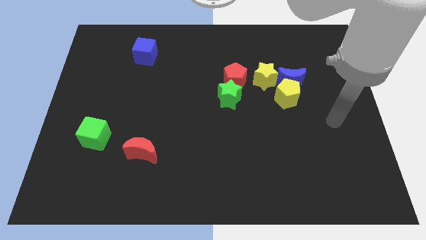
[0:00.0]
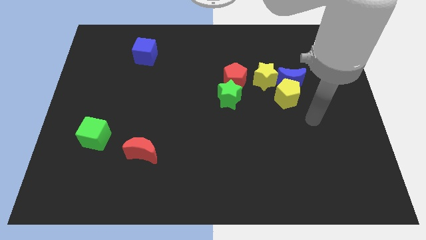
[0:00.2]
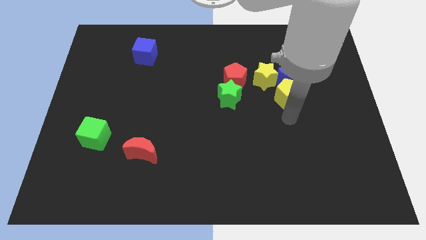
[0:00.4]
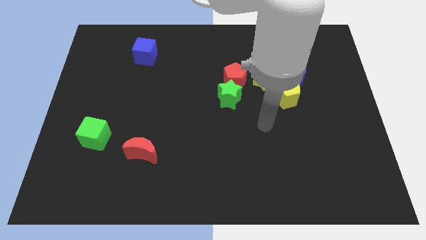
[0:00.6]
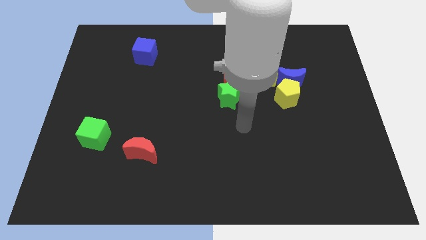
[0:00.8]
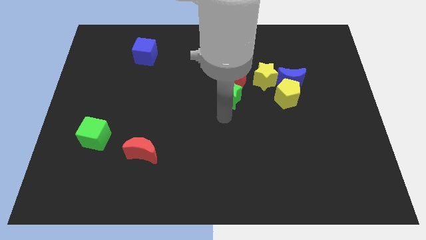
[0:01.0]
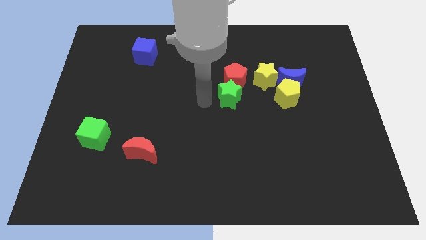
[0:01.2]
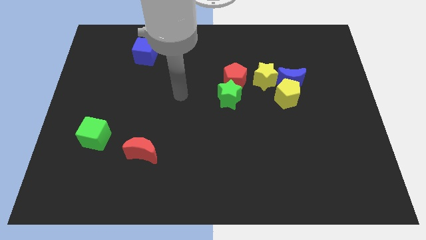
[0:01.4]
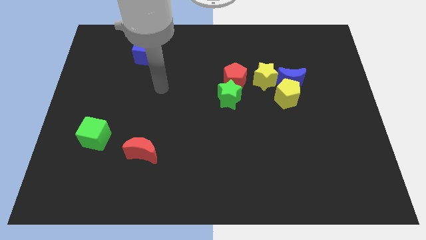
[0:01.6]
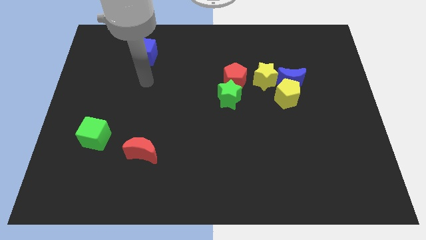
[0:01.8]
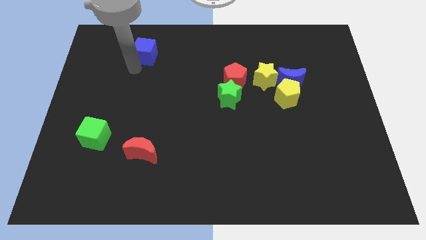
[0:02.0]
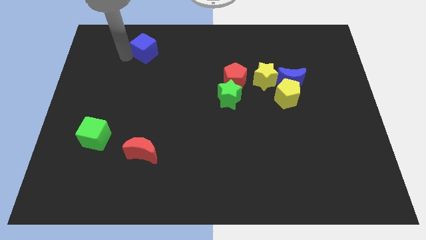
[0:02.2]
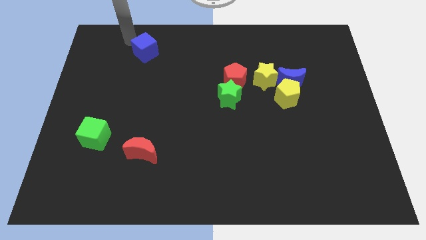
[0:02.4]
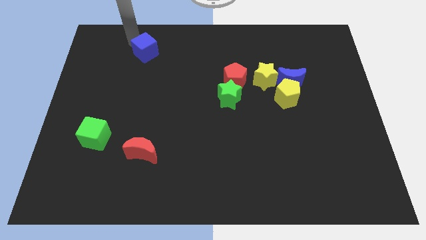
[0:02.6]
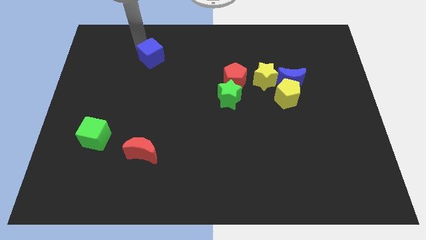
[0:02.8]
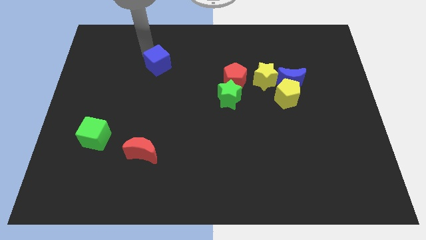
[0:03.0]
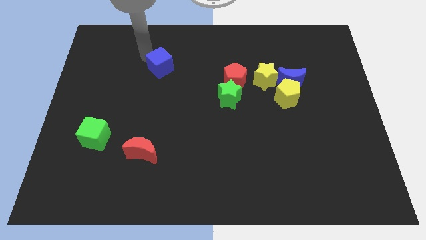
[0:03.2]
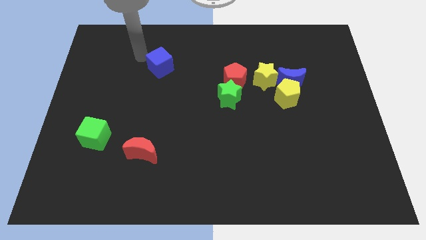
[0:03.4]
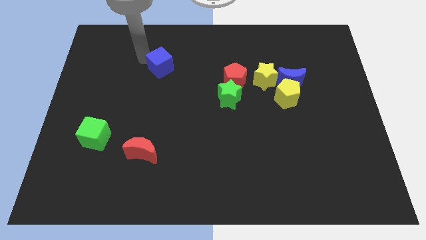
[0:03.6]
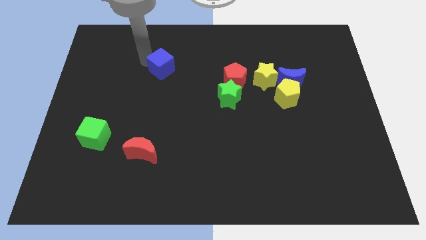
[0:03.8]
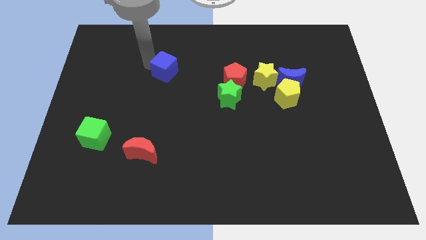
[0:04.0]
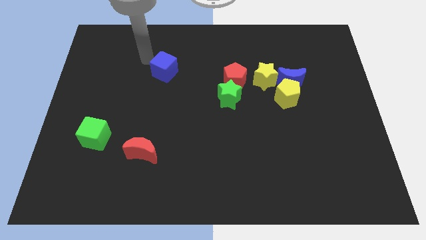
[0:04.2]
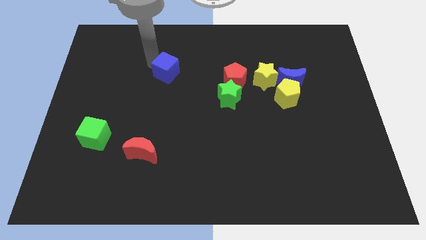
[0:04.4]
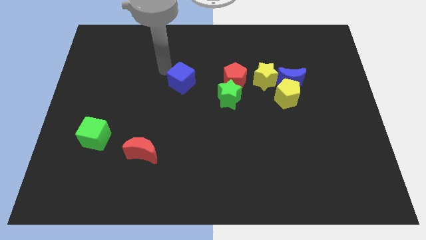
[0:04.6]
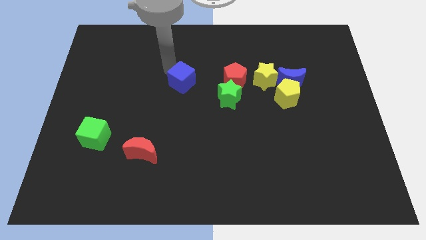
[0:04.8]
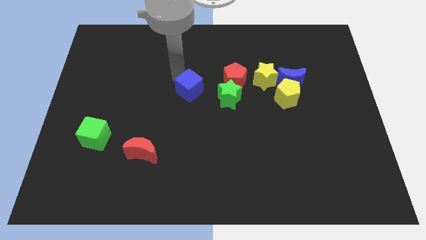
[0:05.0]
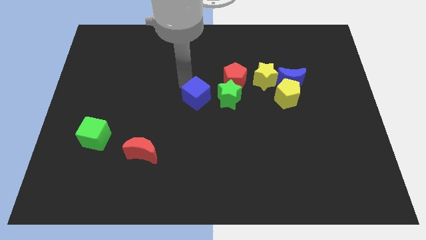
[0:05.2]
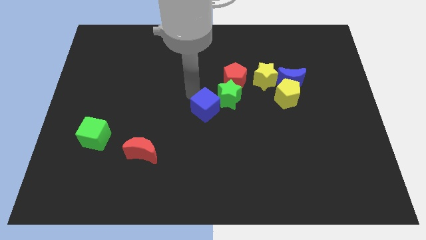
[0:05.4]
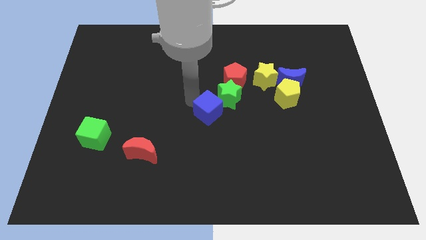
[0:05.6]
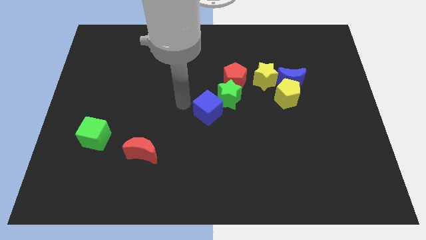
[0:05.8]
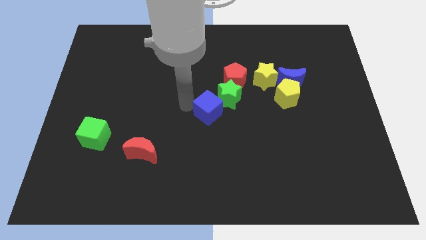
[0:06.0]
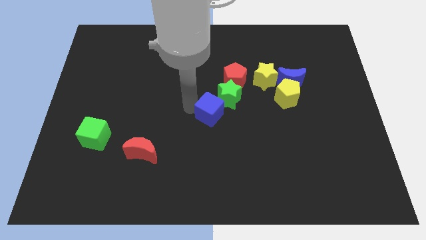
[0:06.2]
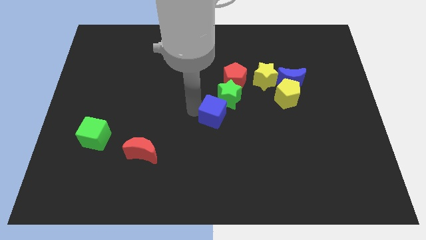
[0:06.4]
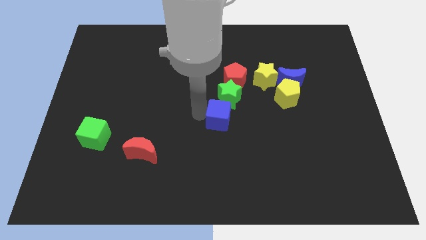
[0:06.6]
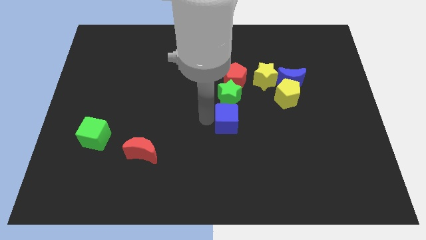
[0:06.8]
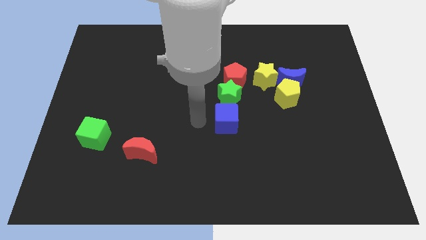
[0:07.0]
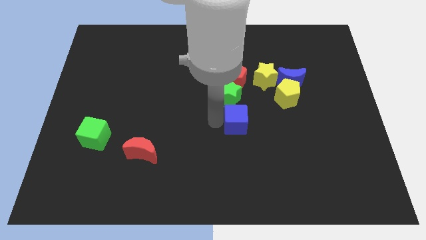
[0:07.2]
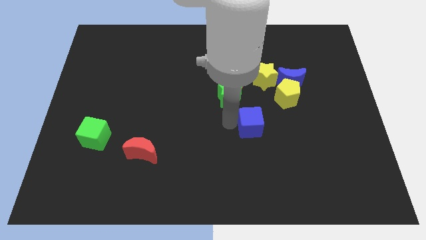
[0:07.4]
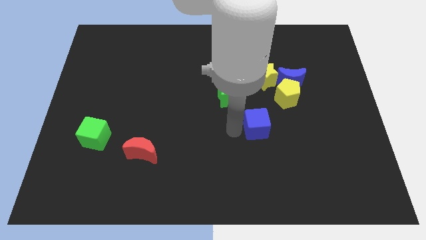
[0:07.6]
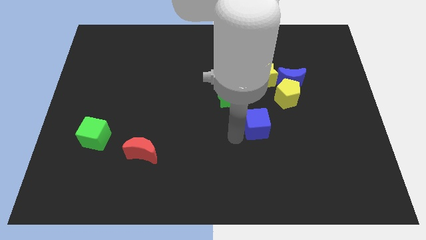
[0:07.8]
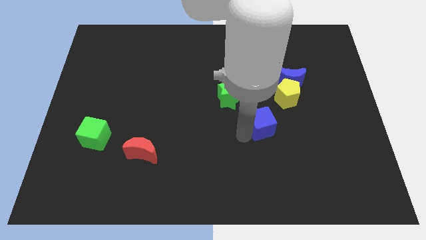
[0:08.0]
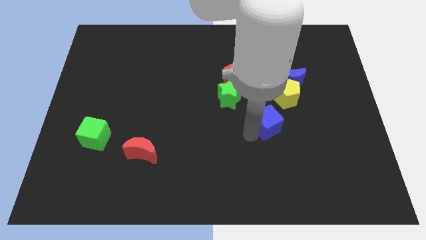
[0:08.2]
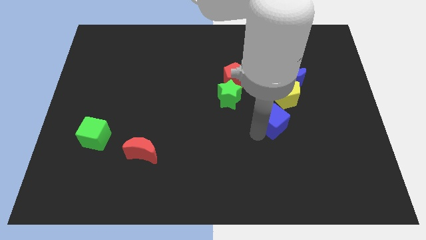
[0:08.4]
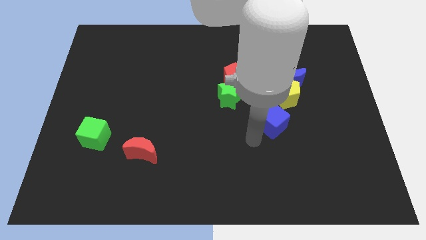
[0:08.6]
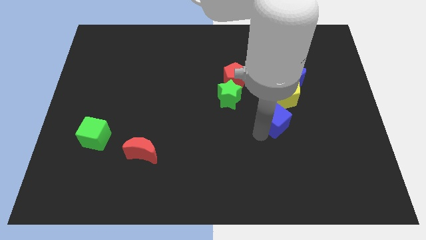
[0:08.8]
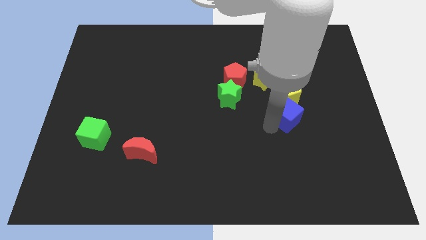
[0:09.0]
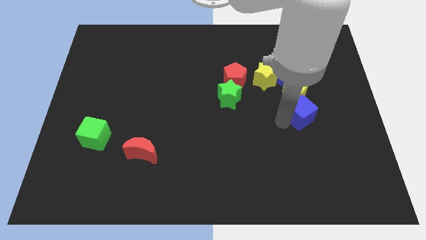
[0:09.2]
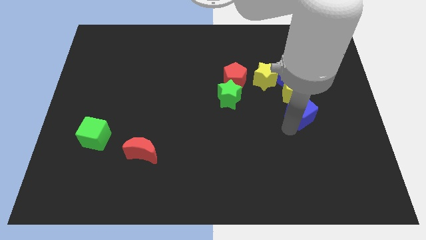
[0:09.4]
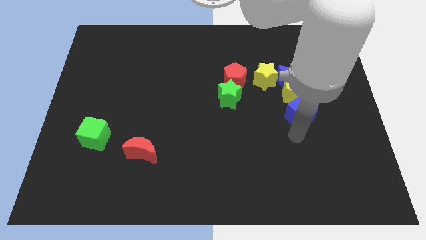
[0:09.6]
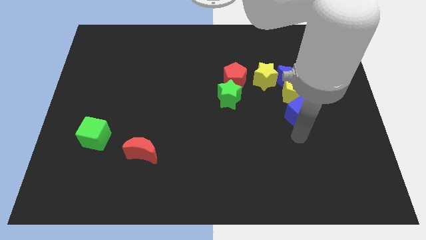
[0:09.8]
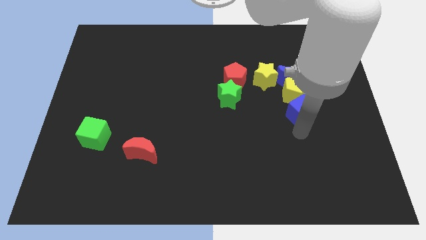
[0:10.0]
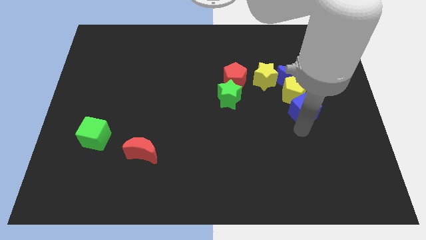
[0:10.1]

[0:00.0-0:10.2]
put the blue cube diagonally down and to the right of the yellow star

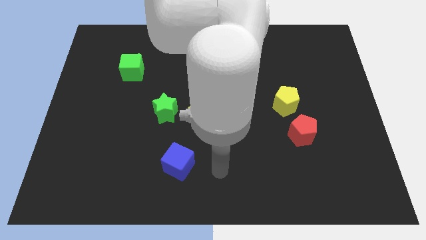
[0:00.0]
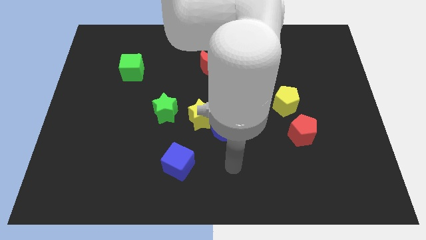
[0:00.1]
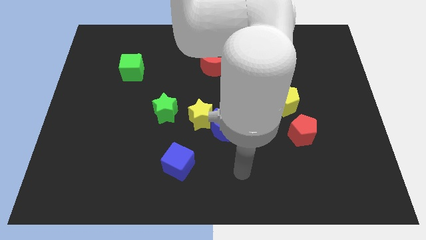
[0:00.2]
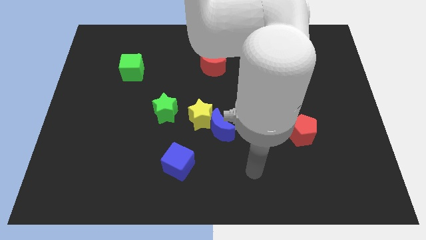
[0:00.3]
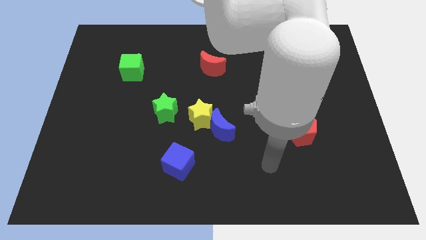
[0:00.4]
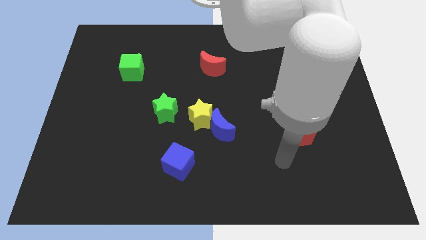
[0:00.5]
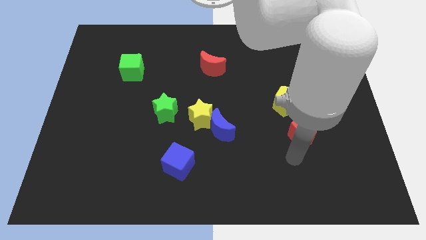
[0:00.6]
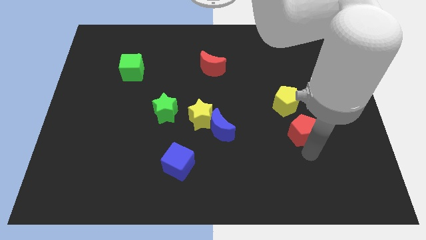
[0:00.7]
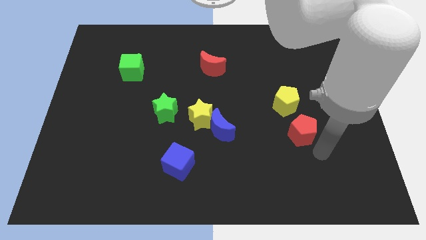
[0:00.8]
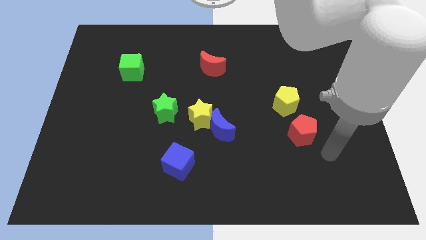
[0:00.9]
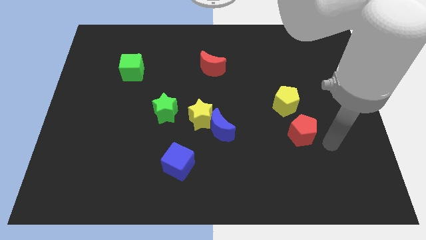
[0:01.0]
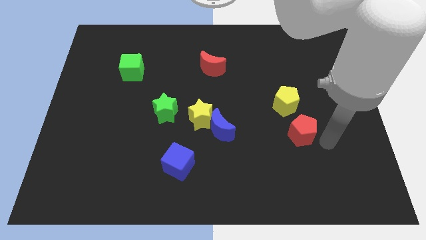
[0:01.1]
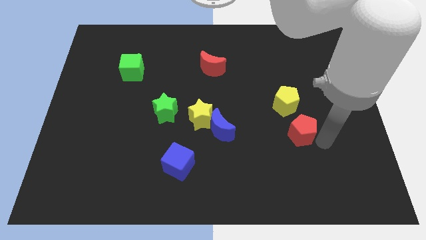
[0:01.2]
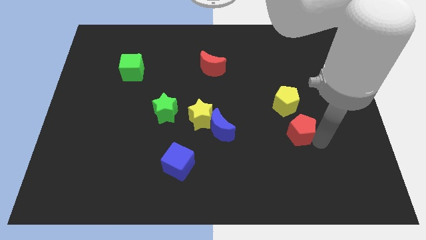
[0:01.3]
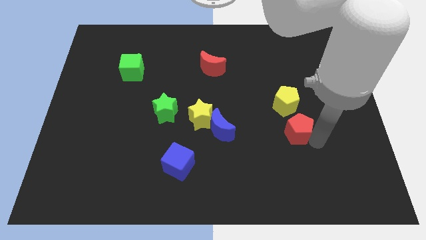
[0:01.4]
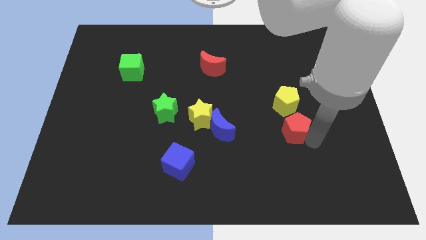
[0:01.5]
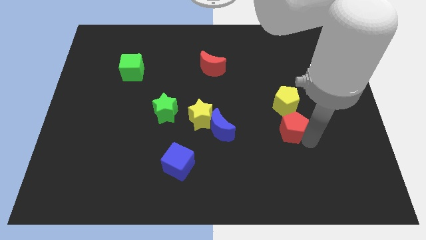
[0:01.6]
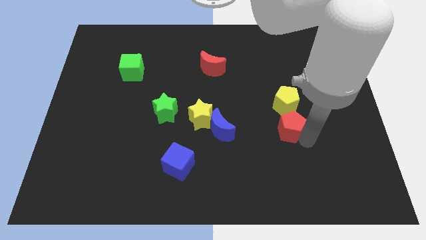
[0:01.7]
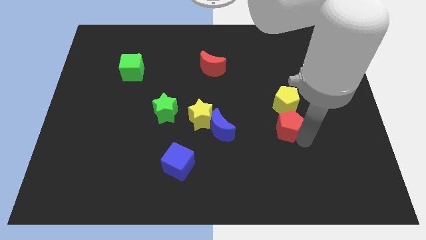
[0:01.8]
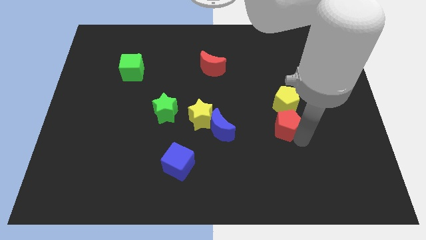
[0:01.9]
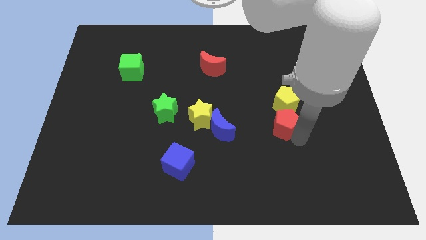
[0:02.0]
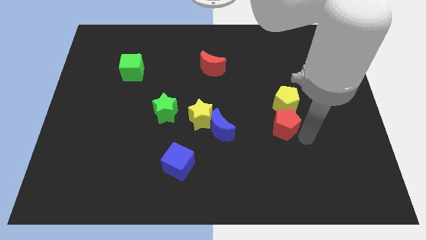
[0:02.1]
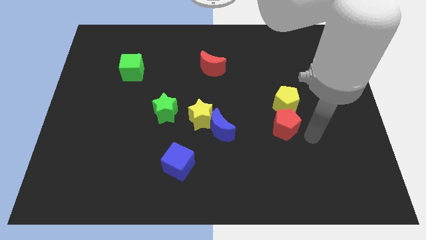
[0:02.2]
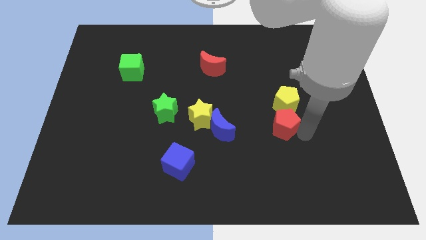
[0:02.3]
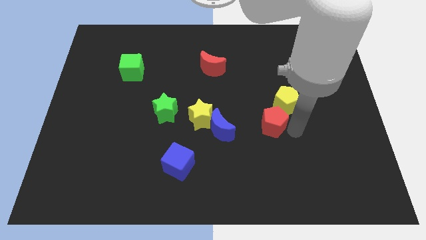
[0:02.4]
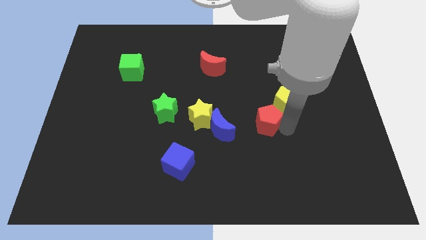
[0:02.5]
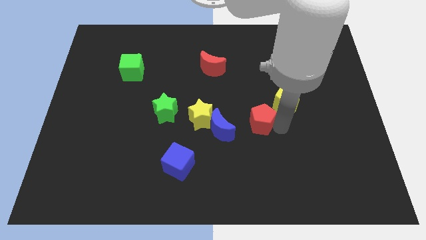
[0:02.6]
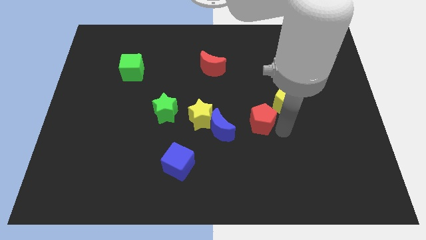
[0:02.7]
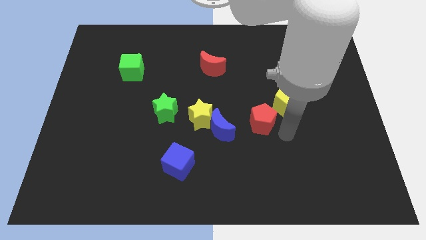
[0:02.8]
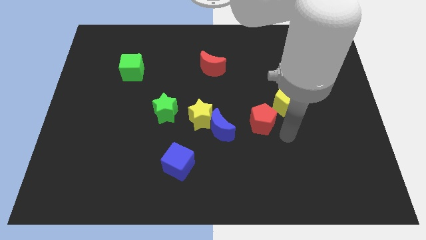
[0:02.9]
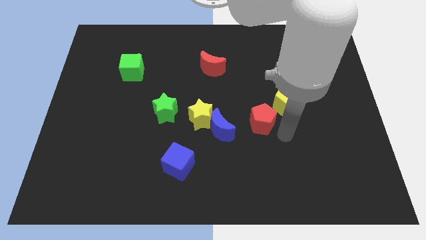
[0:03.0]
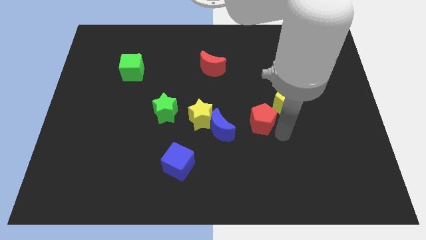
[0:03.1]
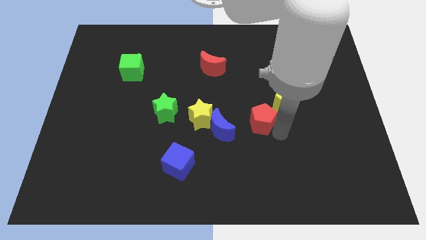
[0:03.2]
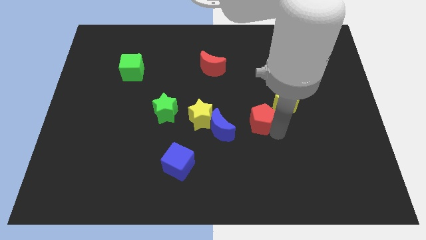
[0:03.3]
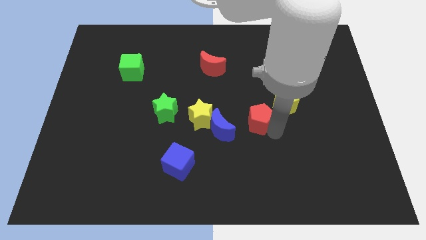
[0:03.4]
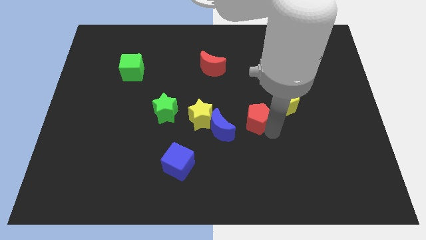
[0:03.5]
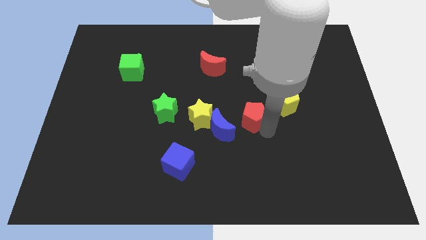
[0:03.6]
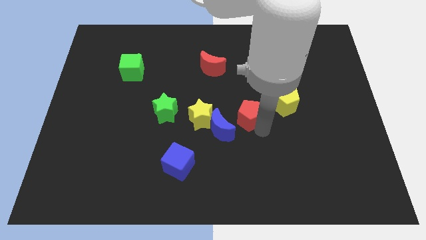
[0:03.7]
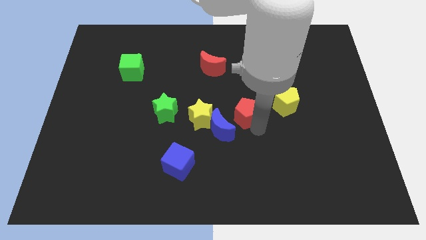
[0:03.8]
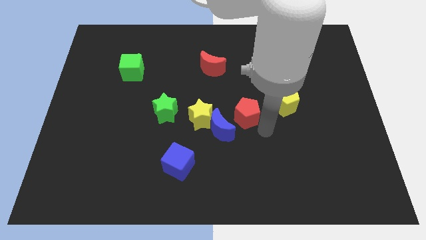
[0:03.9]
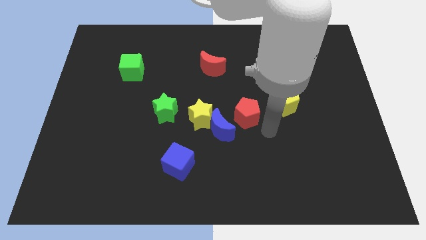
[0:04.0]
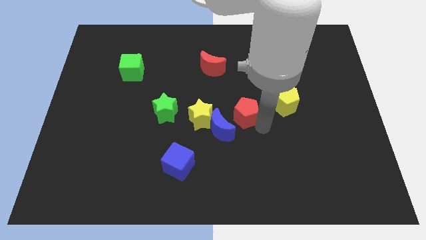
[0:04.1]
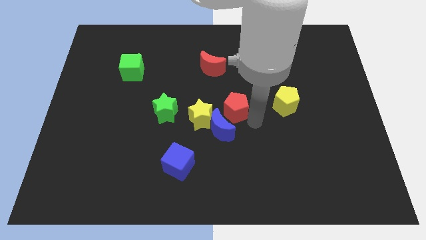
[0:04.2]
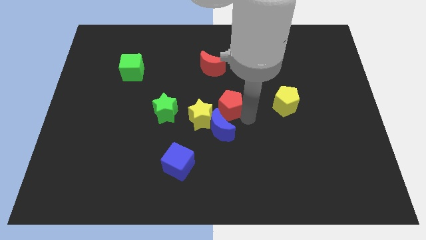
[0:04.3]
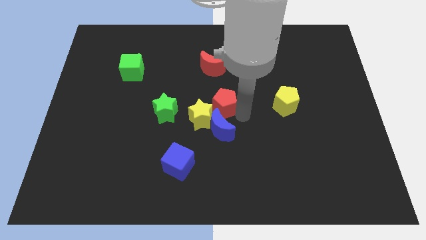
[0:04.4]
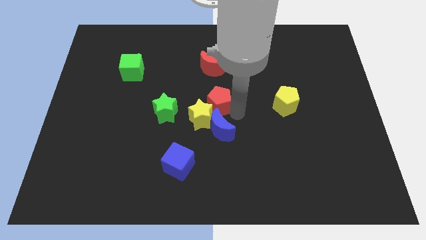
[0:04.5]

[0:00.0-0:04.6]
put the red pentagon to the top side of the yellow star
